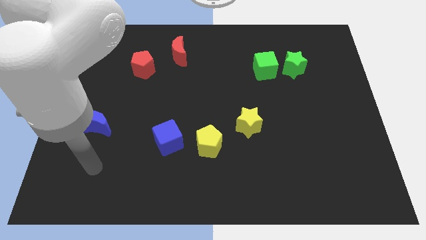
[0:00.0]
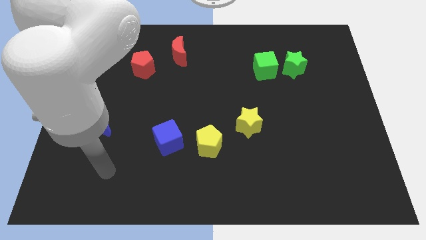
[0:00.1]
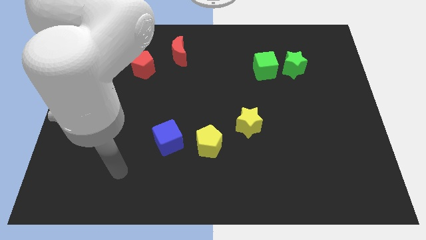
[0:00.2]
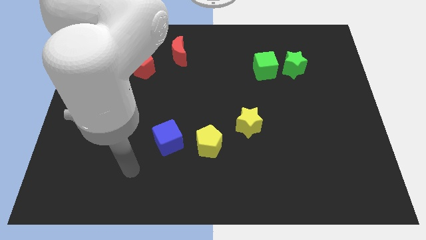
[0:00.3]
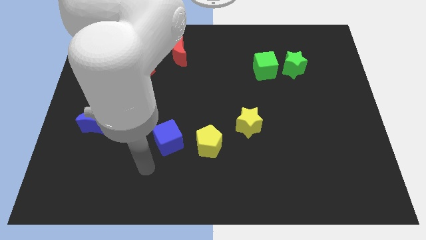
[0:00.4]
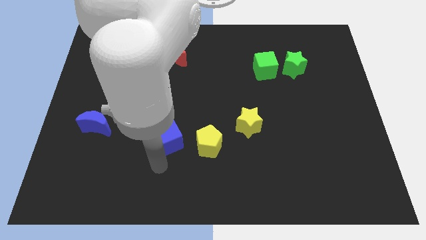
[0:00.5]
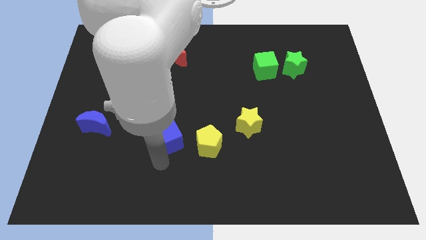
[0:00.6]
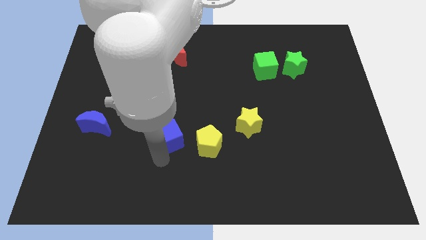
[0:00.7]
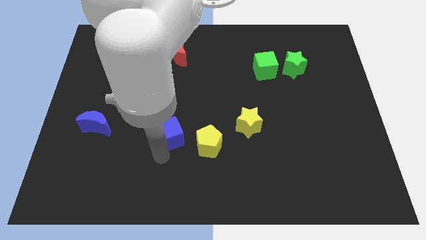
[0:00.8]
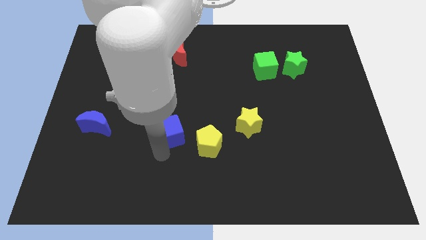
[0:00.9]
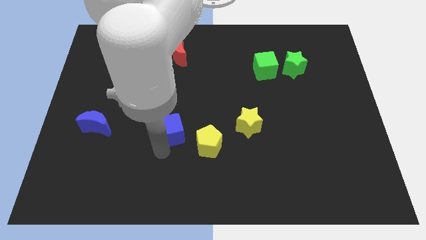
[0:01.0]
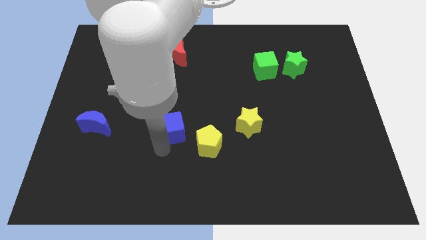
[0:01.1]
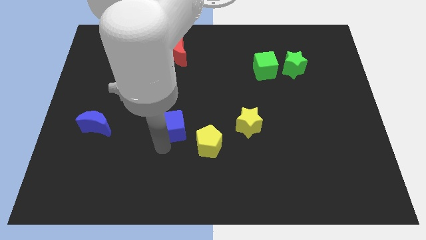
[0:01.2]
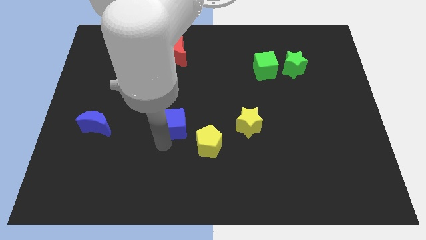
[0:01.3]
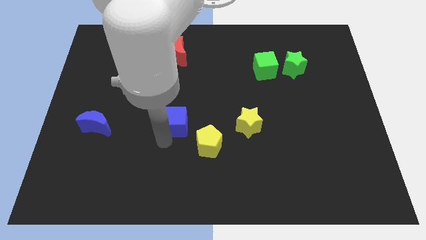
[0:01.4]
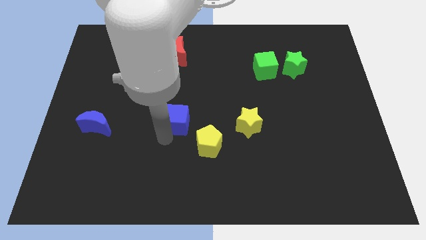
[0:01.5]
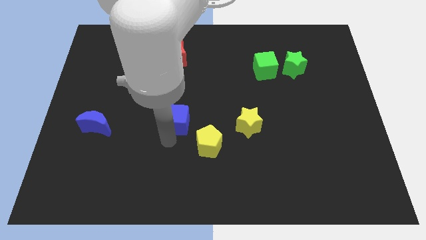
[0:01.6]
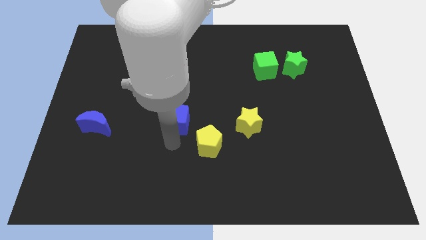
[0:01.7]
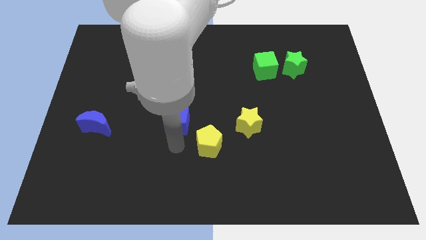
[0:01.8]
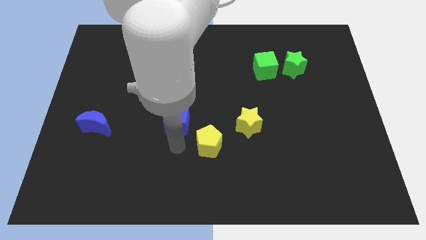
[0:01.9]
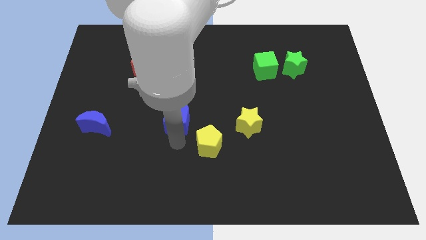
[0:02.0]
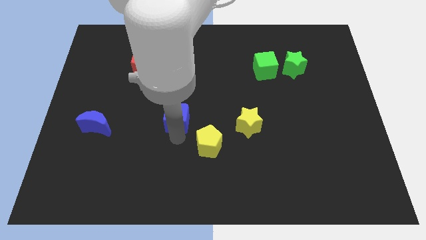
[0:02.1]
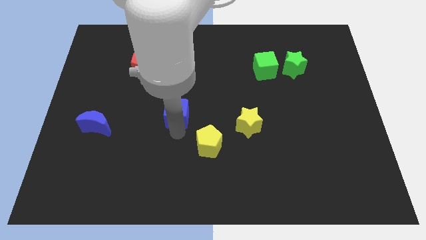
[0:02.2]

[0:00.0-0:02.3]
slide the blue cube a little bit up

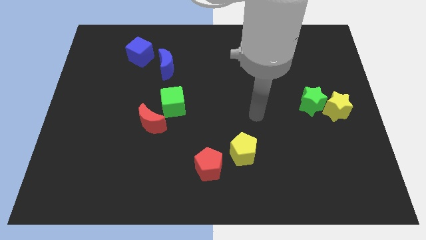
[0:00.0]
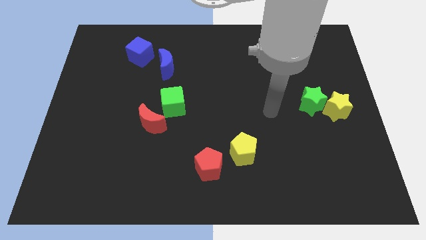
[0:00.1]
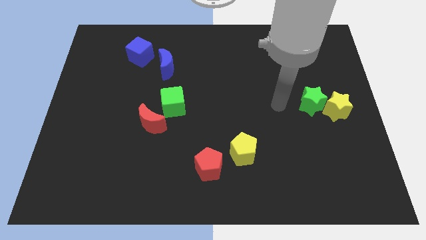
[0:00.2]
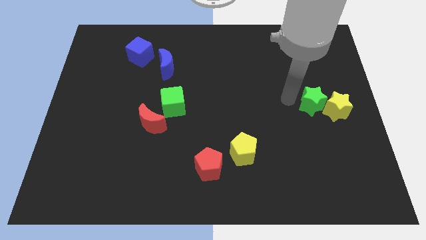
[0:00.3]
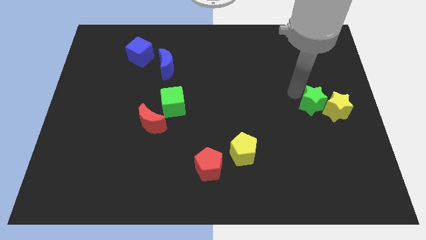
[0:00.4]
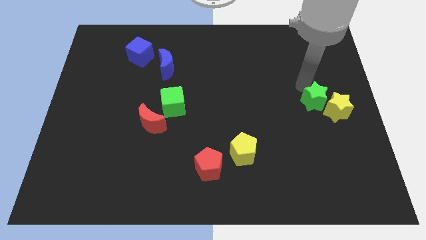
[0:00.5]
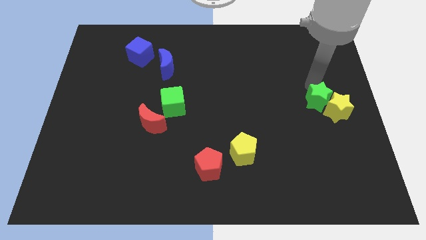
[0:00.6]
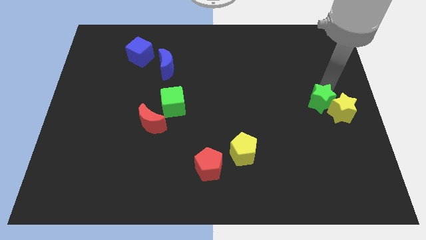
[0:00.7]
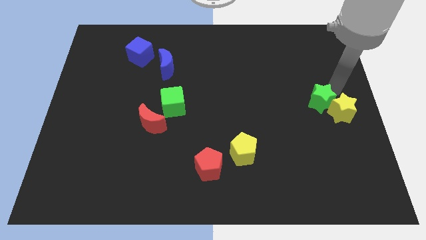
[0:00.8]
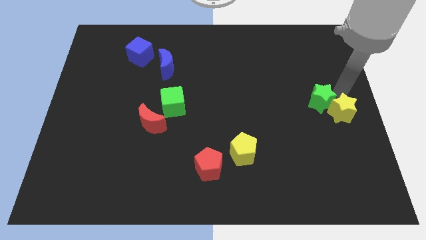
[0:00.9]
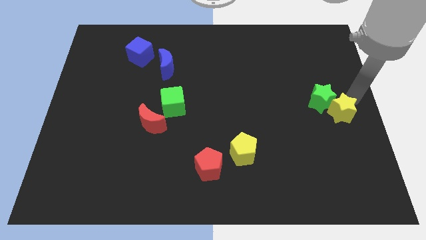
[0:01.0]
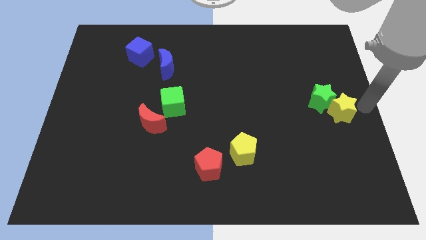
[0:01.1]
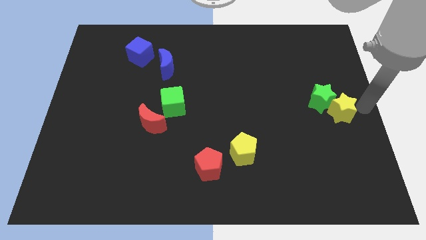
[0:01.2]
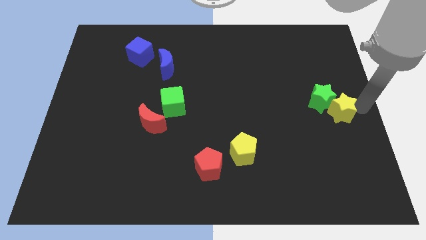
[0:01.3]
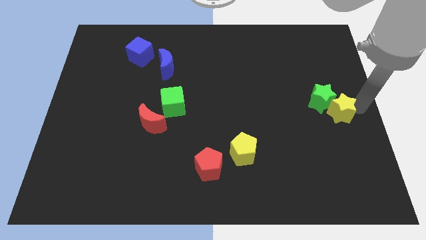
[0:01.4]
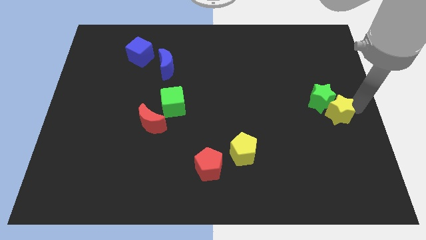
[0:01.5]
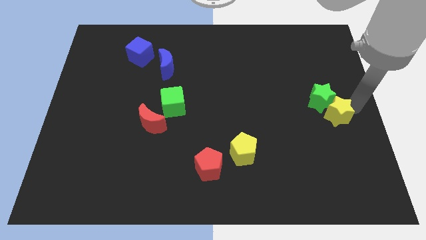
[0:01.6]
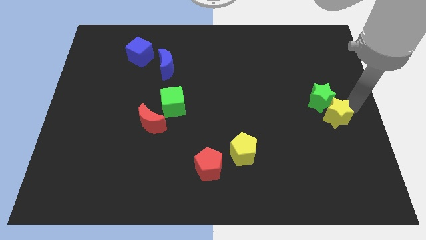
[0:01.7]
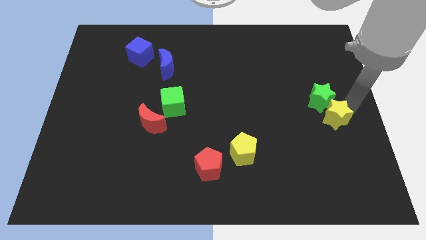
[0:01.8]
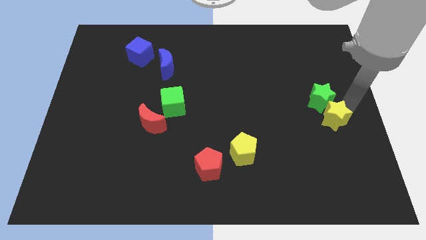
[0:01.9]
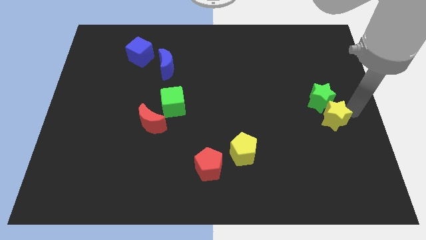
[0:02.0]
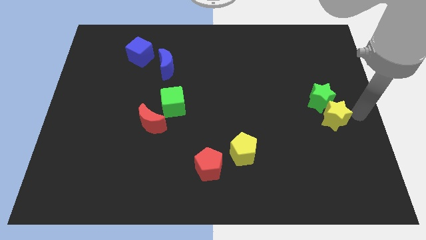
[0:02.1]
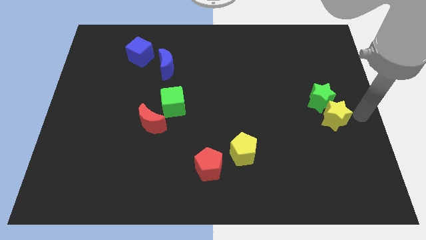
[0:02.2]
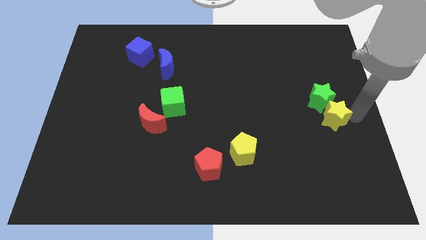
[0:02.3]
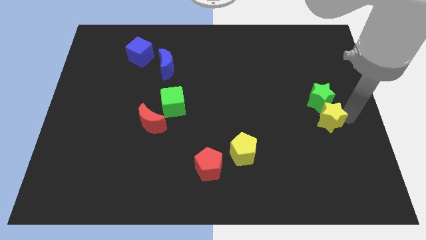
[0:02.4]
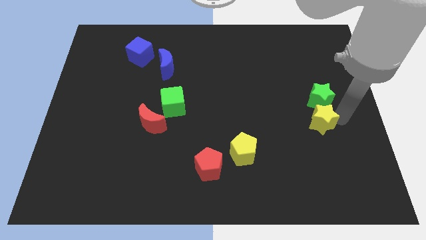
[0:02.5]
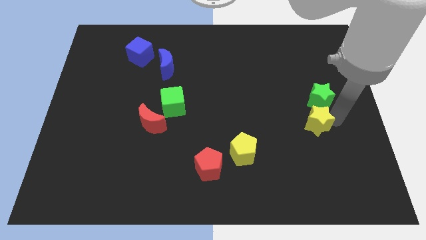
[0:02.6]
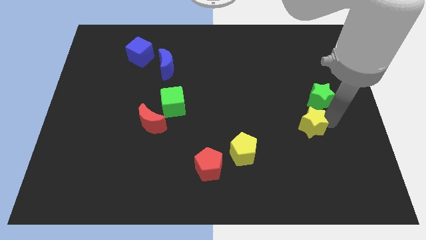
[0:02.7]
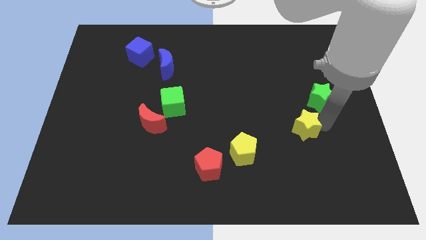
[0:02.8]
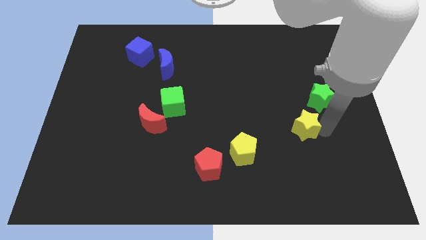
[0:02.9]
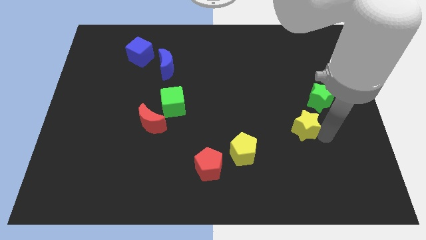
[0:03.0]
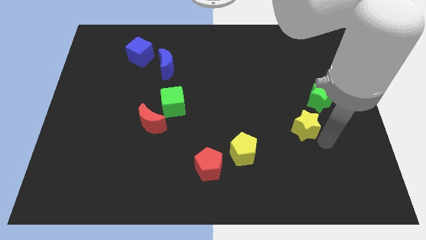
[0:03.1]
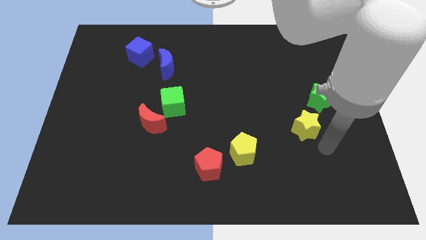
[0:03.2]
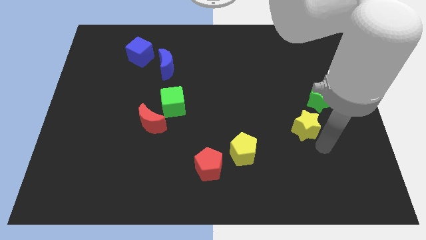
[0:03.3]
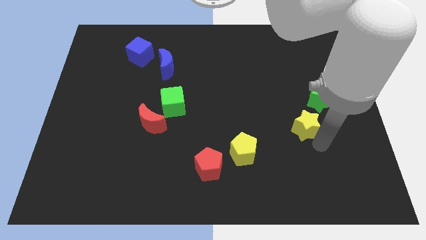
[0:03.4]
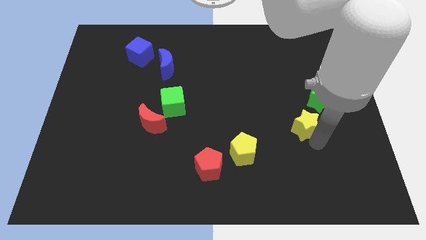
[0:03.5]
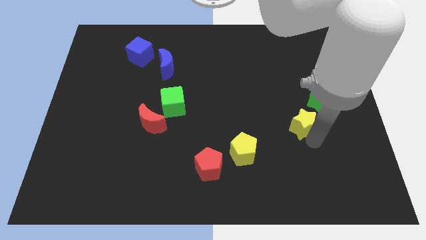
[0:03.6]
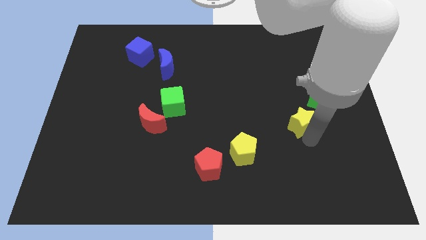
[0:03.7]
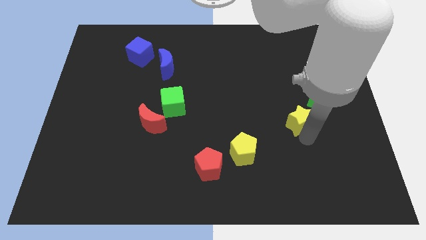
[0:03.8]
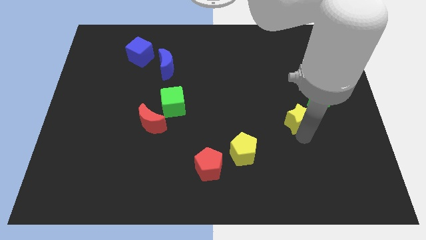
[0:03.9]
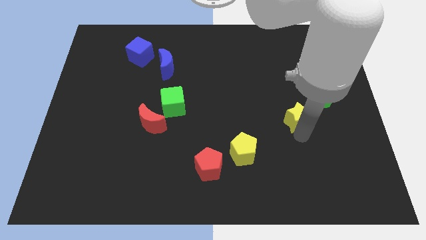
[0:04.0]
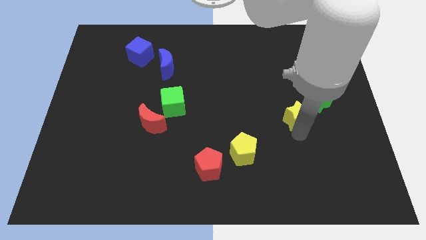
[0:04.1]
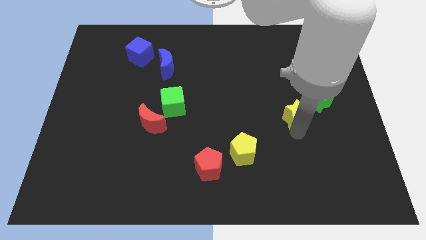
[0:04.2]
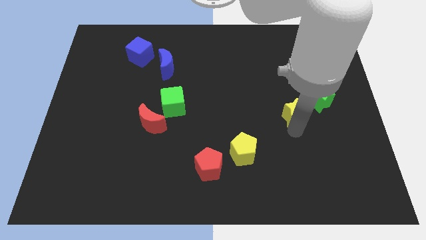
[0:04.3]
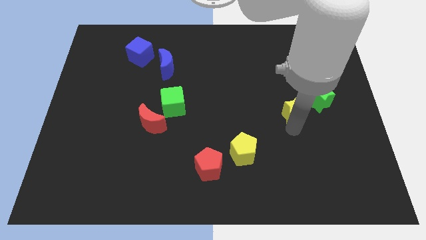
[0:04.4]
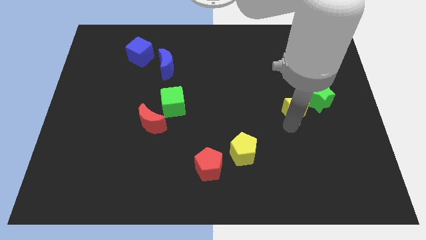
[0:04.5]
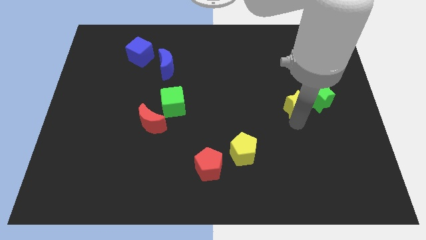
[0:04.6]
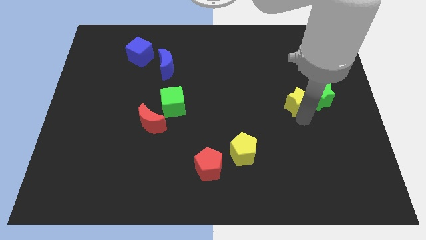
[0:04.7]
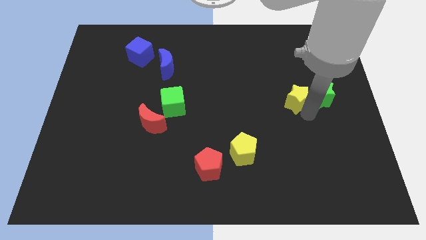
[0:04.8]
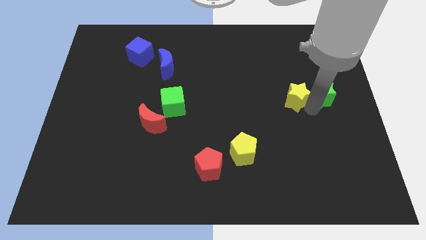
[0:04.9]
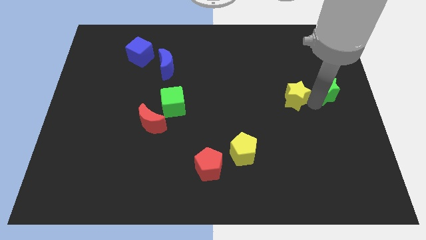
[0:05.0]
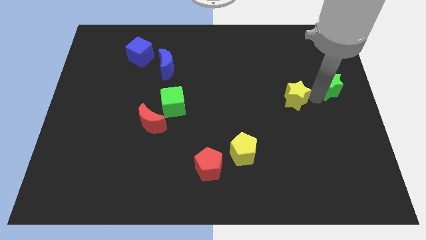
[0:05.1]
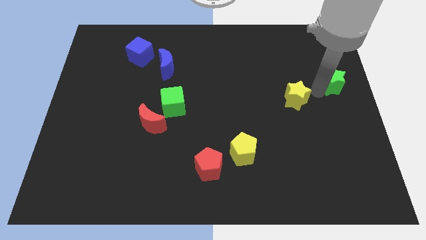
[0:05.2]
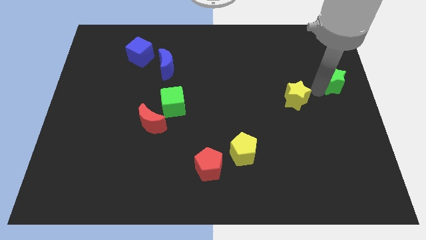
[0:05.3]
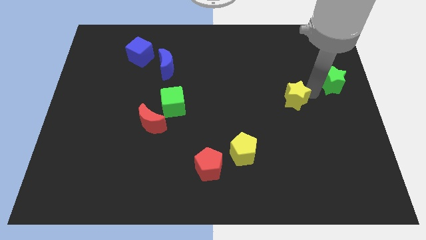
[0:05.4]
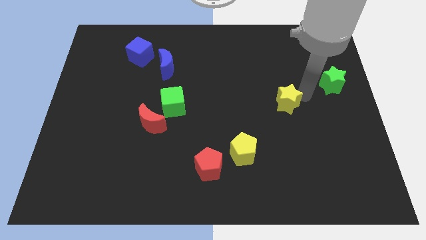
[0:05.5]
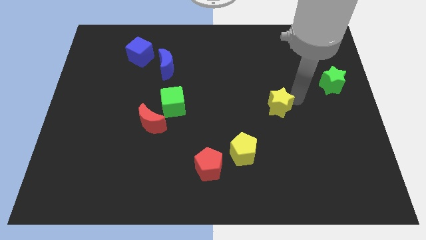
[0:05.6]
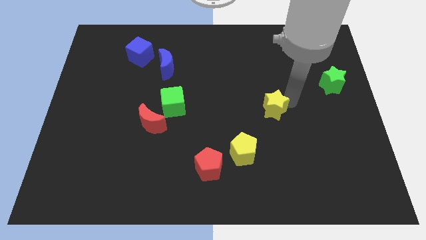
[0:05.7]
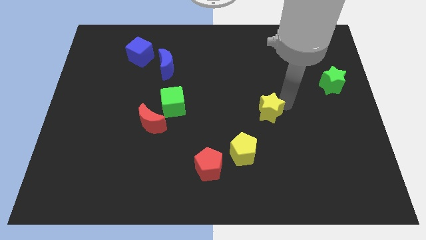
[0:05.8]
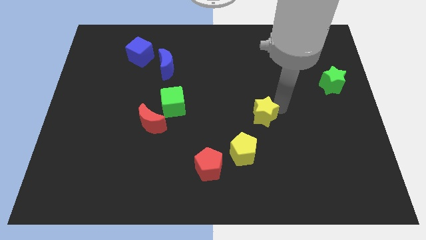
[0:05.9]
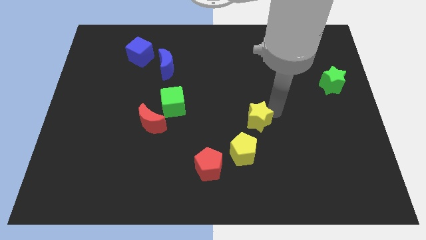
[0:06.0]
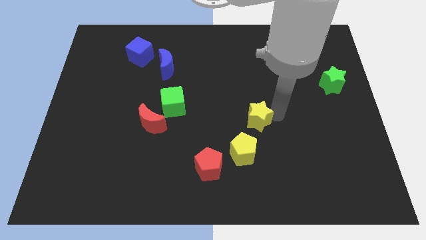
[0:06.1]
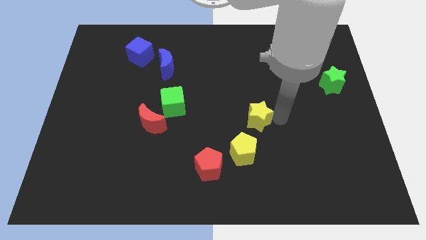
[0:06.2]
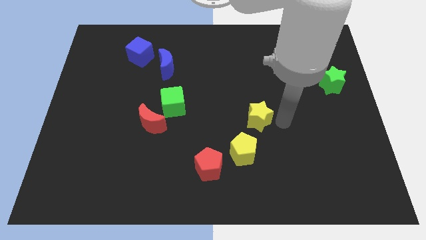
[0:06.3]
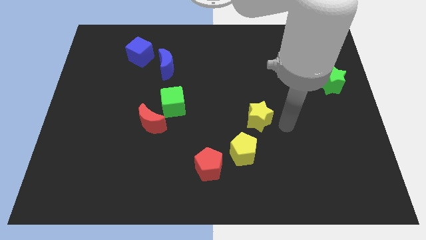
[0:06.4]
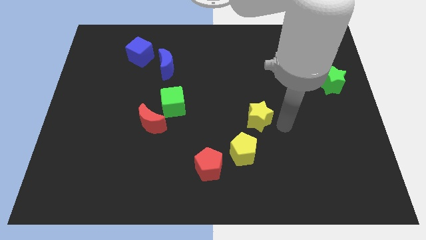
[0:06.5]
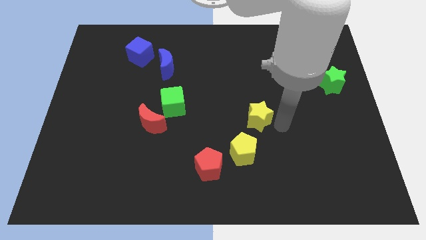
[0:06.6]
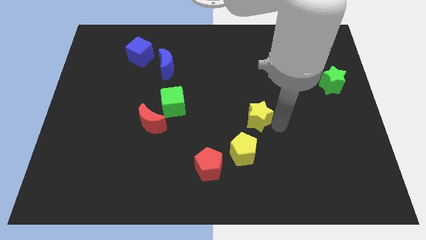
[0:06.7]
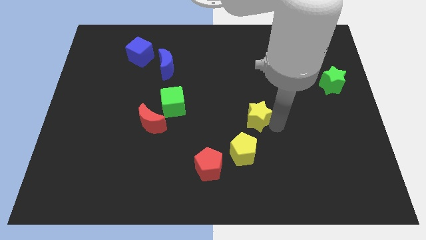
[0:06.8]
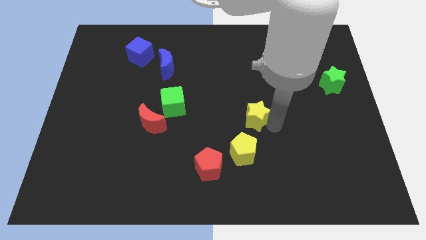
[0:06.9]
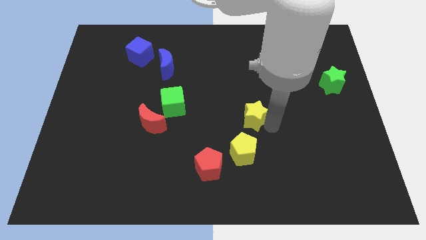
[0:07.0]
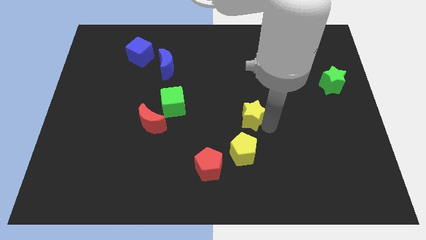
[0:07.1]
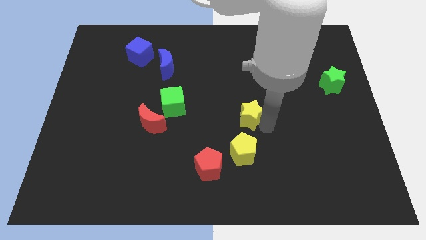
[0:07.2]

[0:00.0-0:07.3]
push the yellow star to the left
